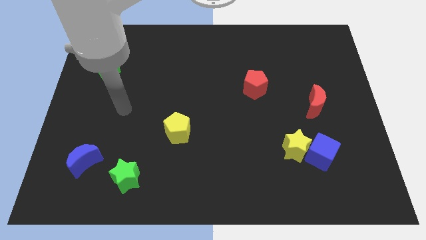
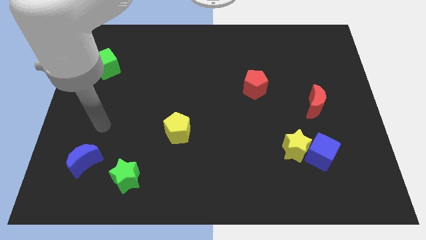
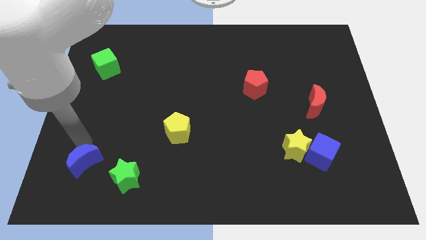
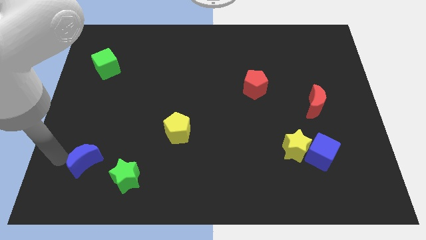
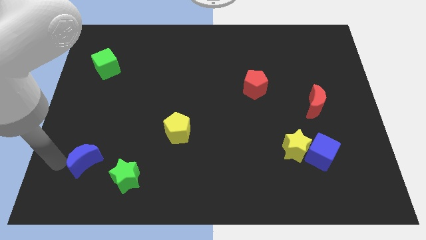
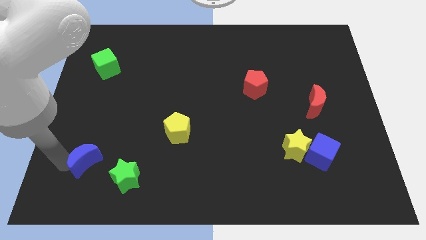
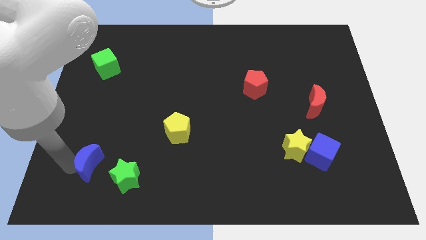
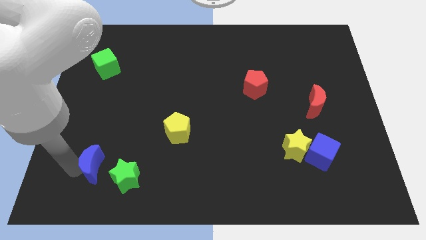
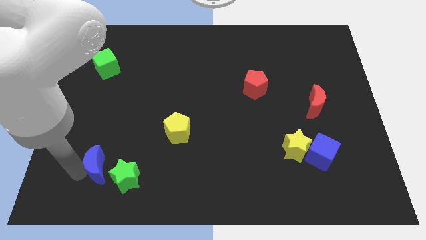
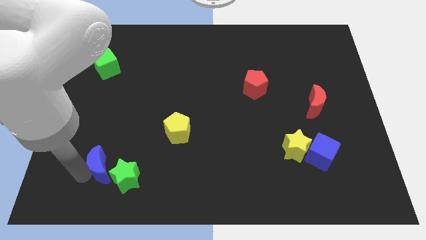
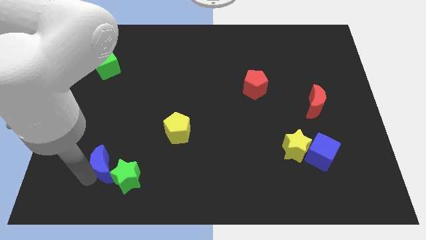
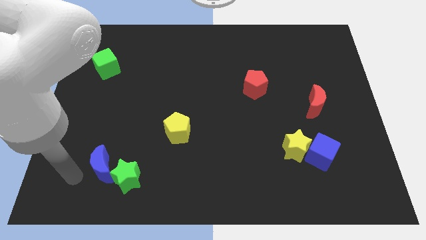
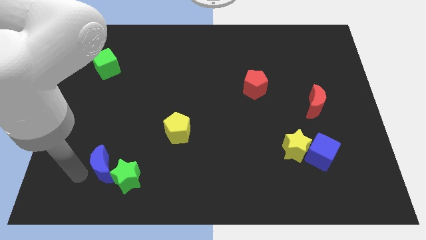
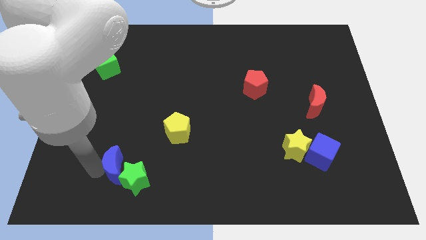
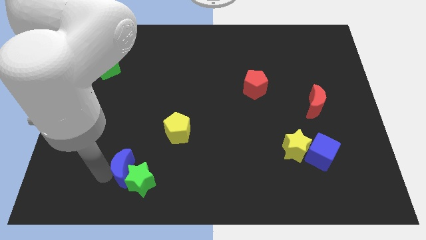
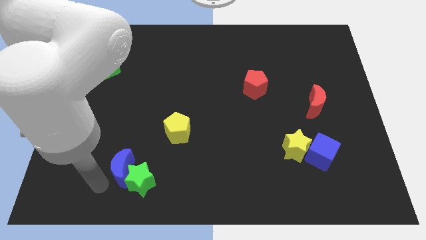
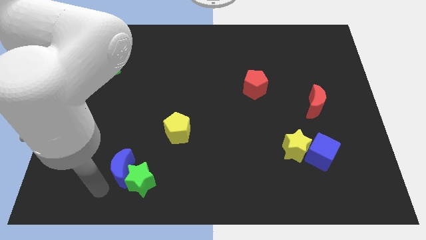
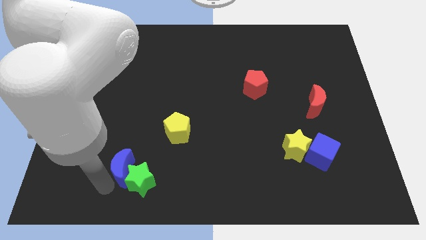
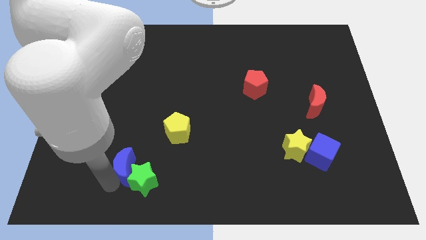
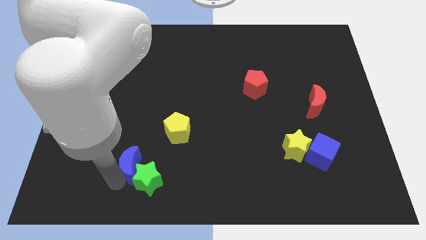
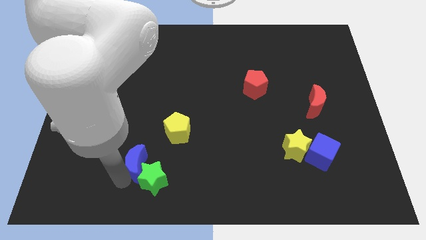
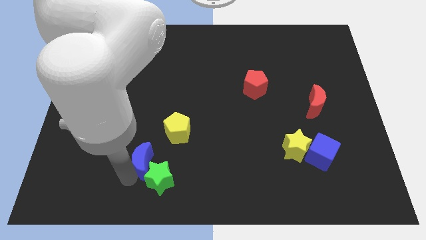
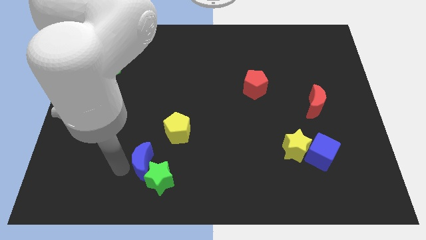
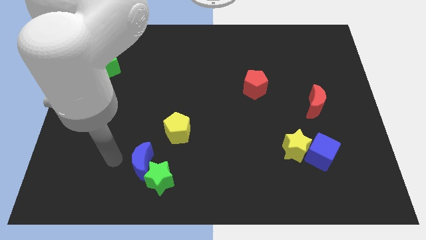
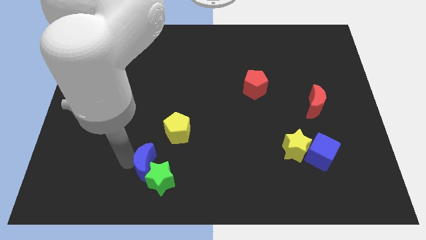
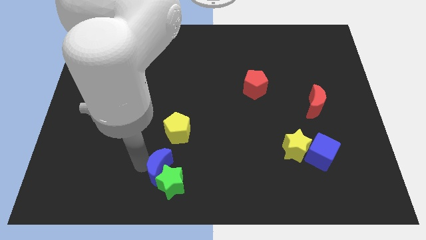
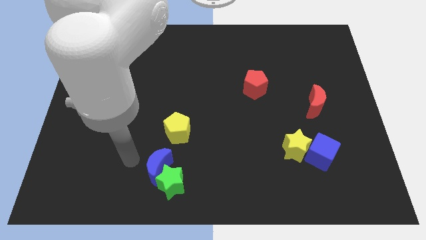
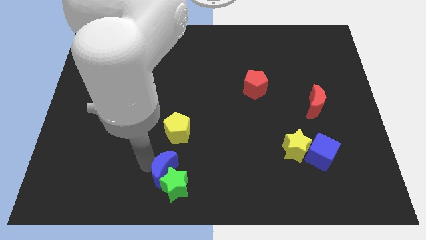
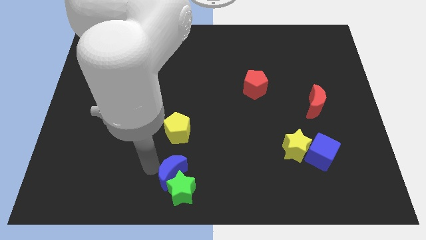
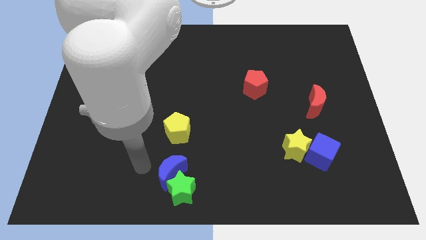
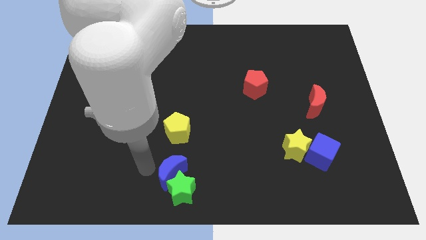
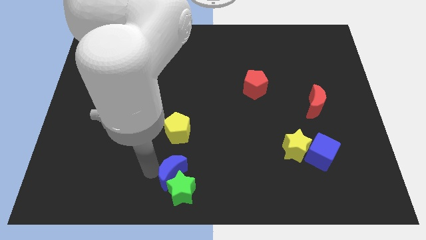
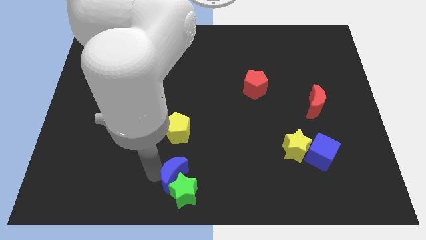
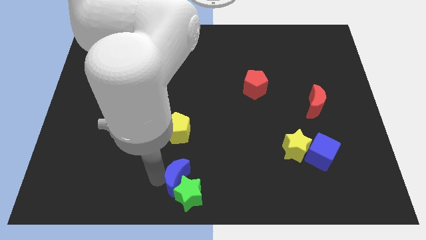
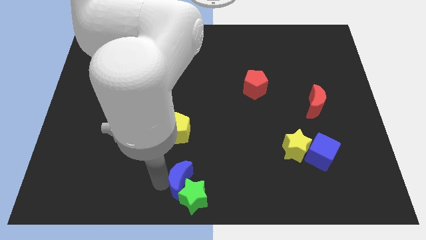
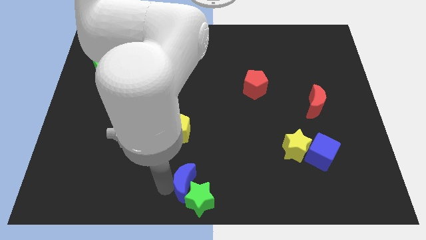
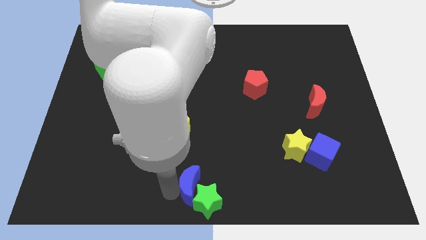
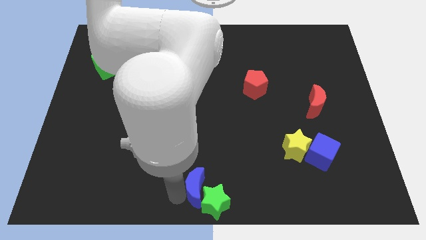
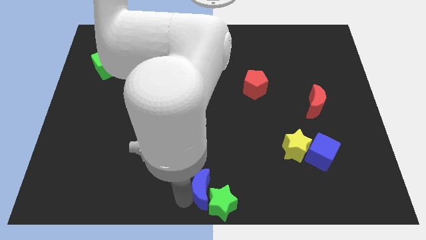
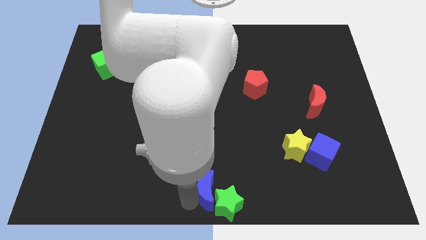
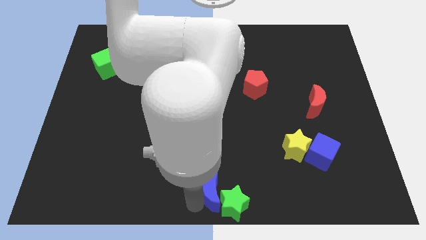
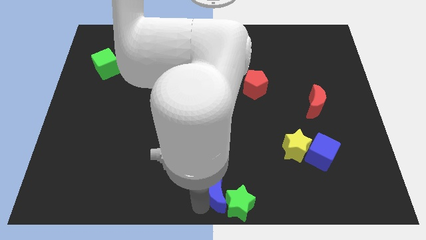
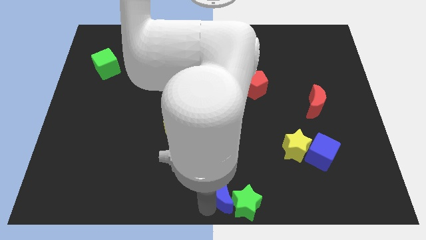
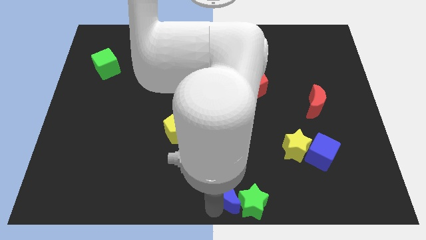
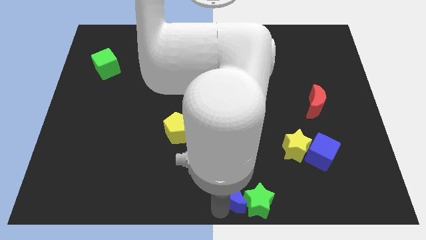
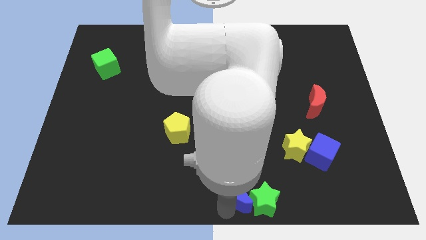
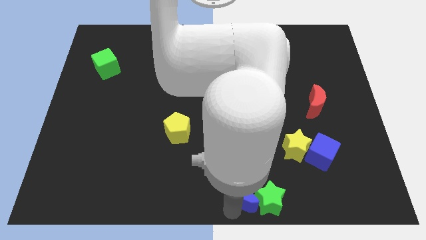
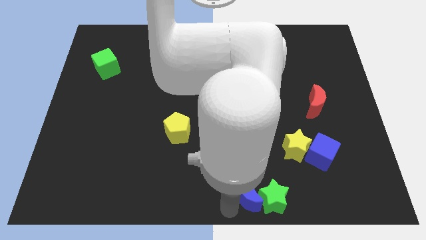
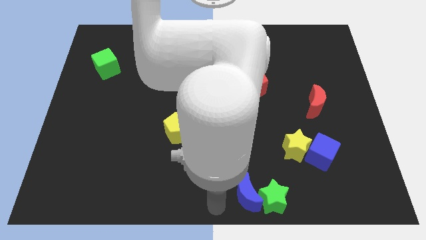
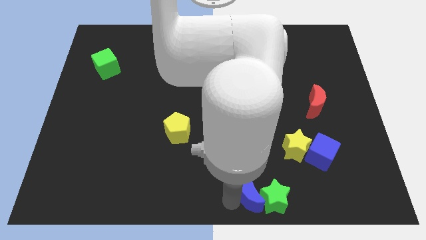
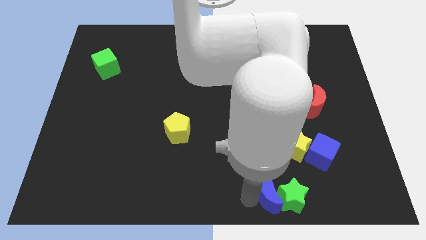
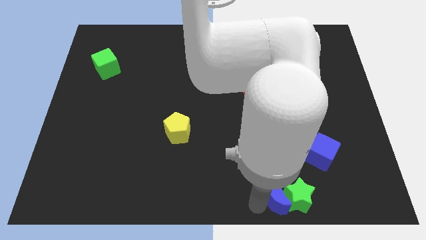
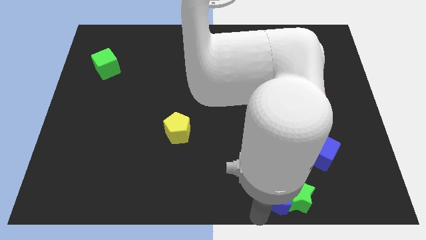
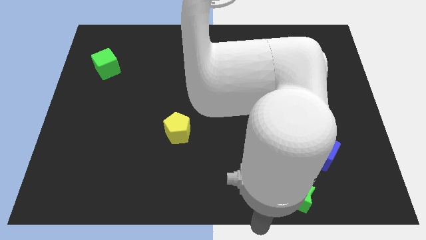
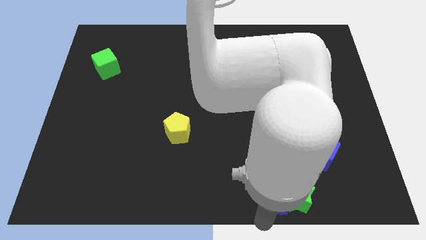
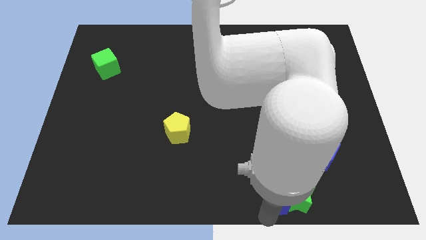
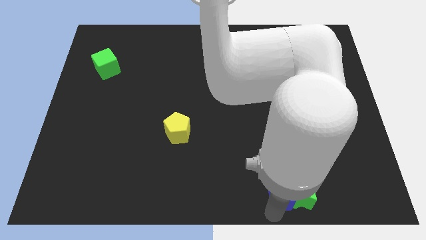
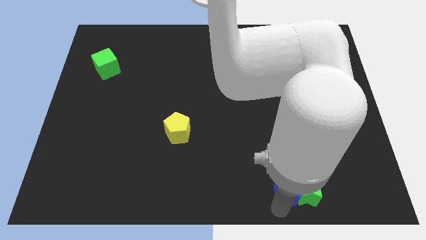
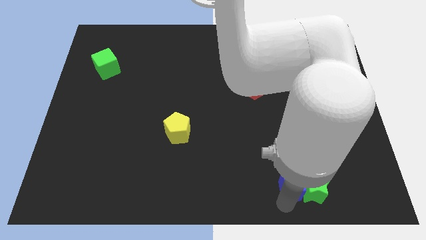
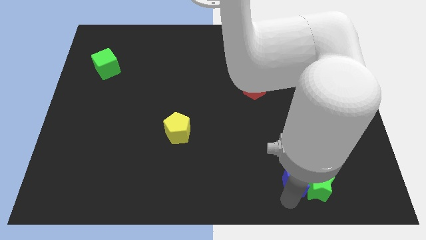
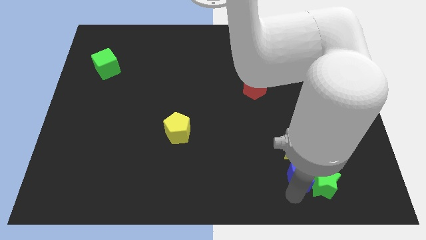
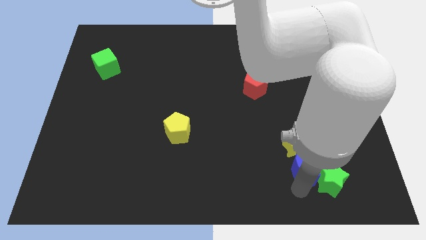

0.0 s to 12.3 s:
slide the blue moon towards the blue cube

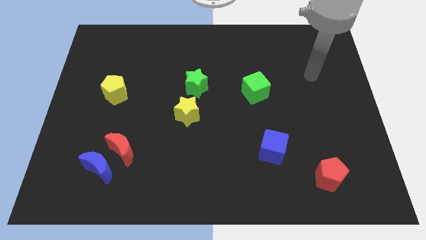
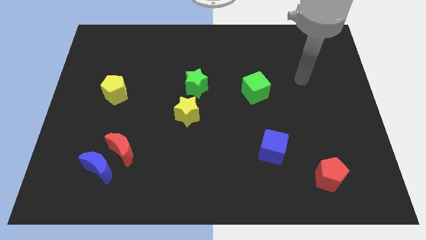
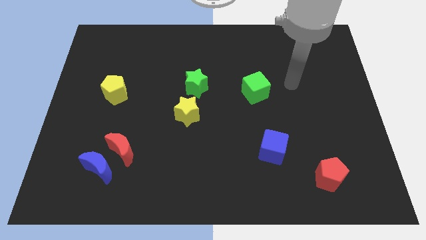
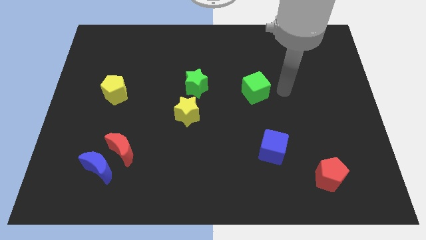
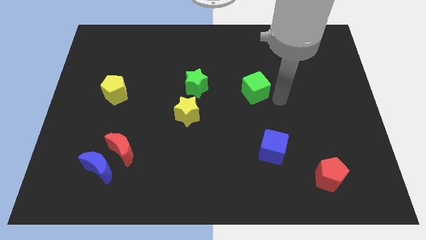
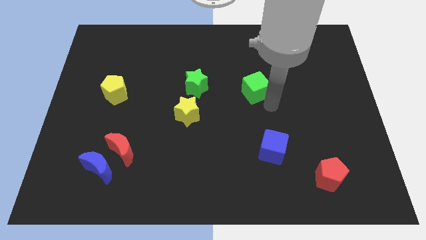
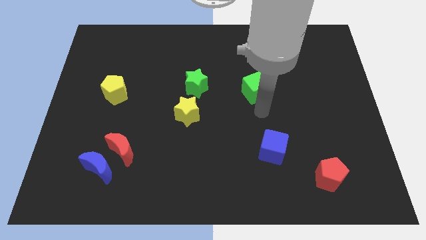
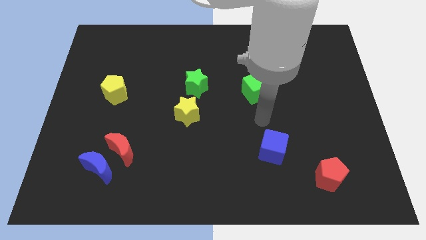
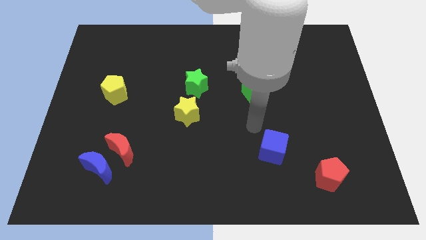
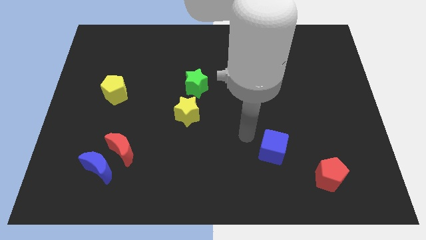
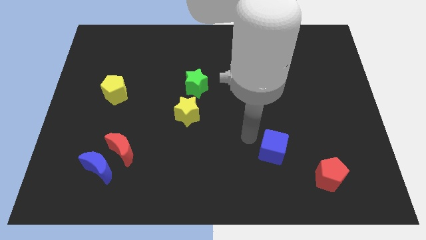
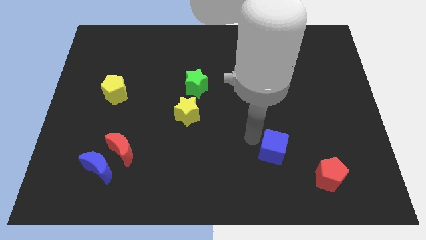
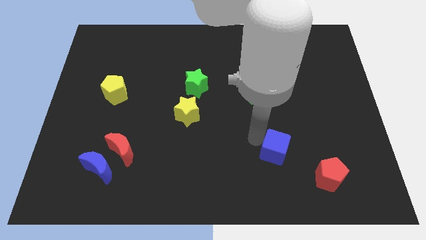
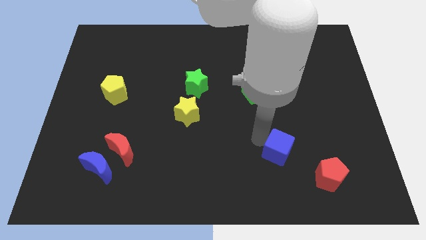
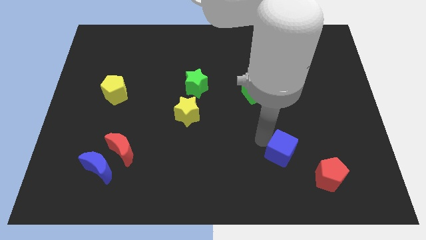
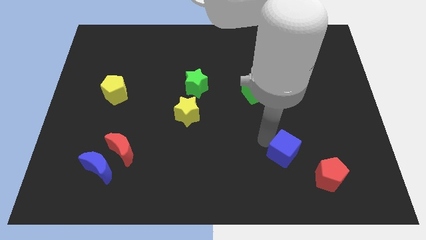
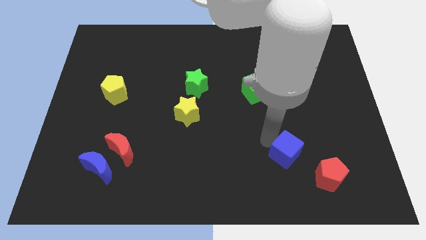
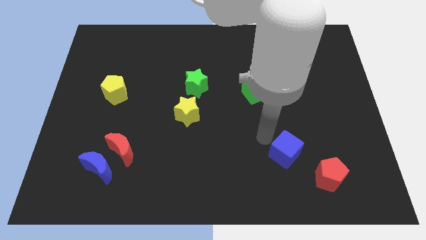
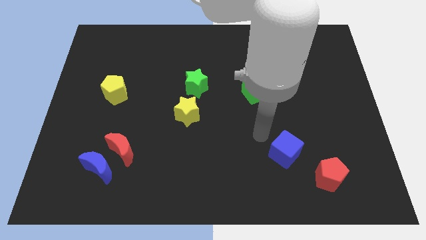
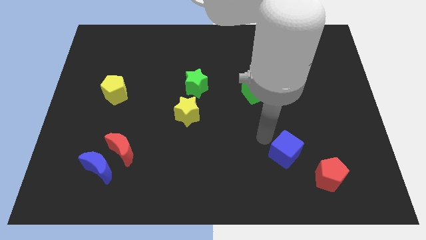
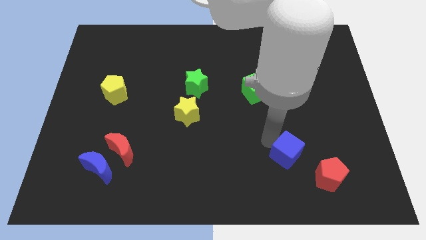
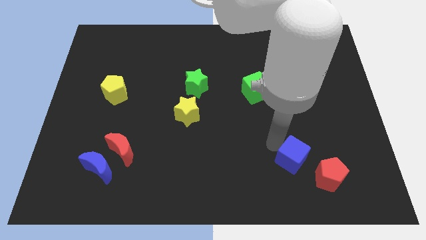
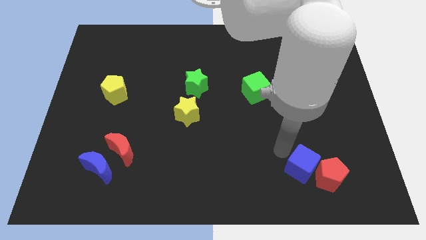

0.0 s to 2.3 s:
slide the blue cube next to the red pentagon
